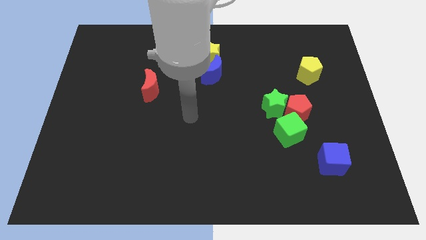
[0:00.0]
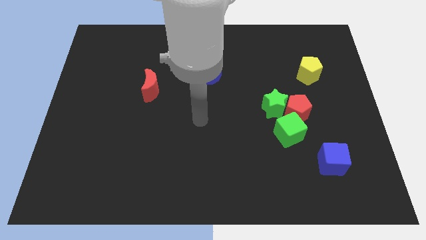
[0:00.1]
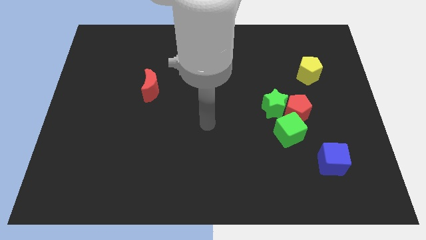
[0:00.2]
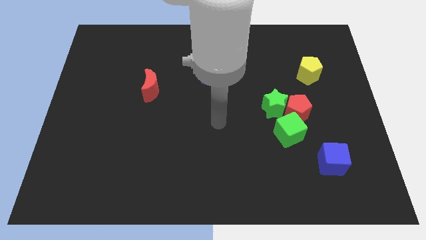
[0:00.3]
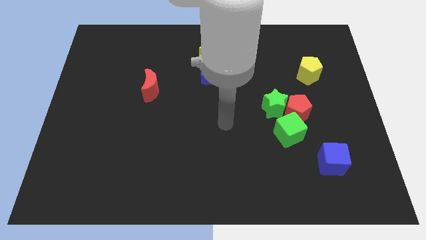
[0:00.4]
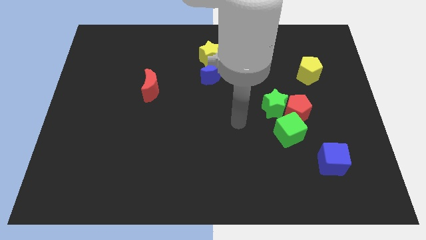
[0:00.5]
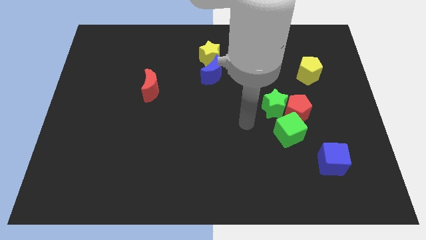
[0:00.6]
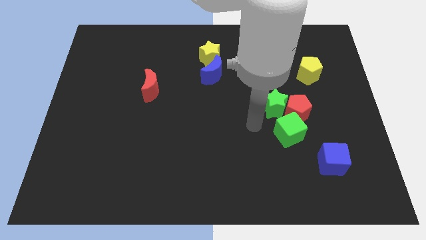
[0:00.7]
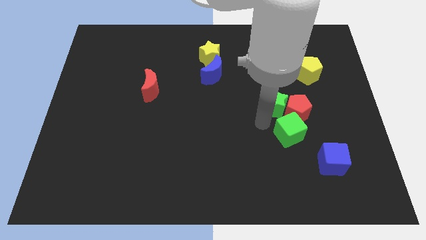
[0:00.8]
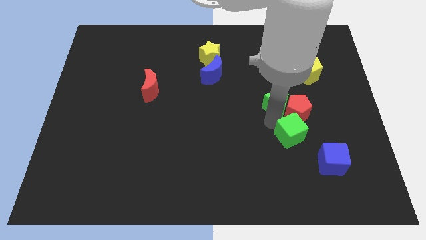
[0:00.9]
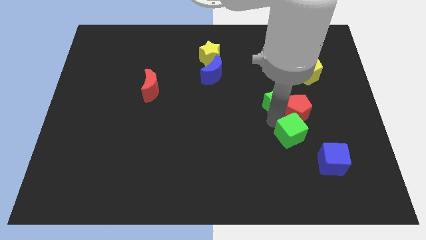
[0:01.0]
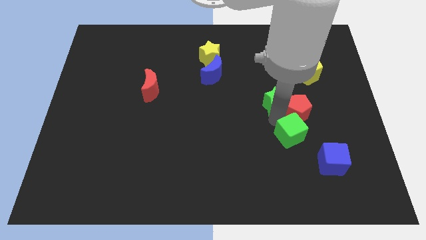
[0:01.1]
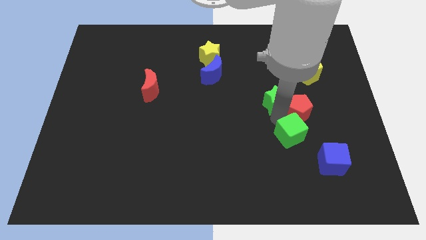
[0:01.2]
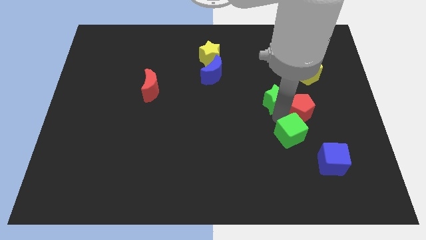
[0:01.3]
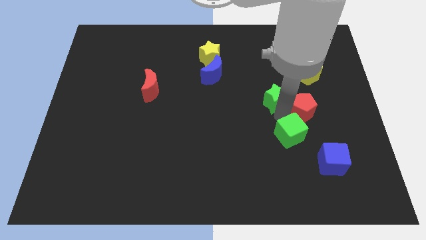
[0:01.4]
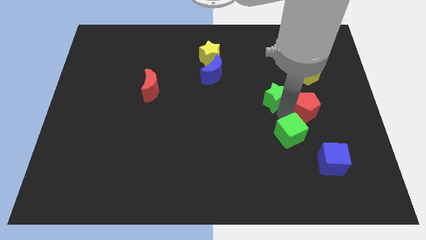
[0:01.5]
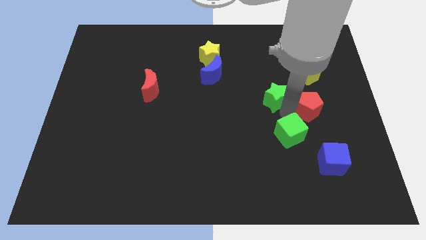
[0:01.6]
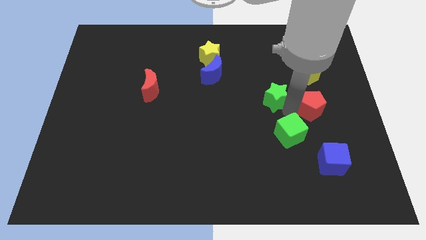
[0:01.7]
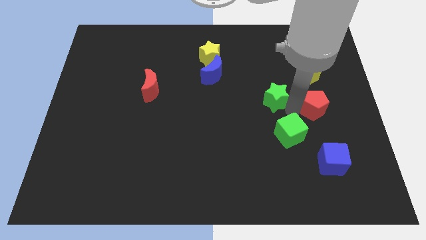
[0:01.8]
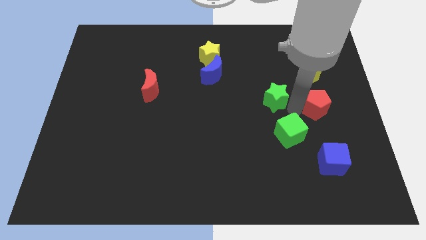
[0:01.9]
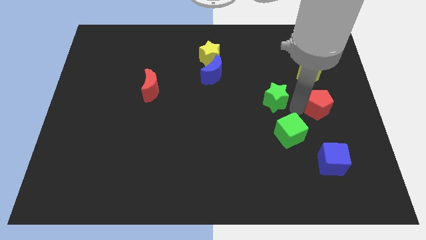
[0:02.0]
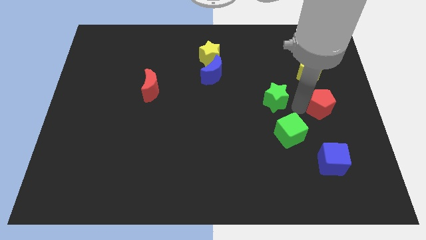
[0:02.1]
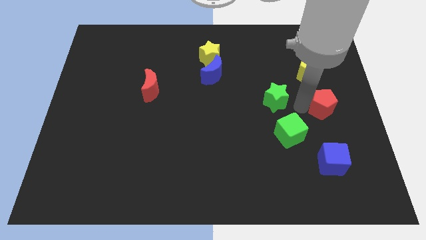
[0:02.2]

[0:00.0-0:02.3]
separate the red pentagon from the green star and green cube

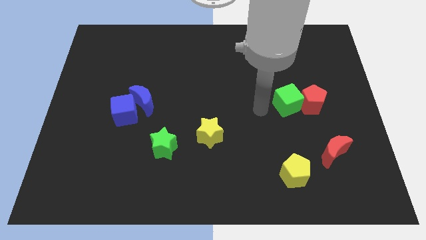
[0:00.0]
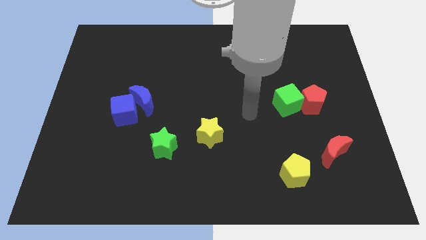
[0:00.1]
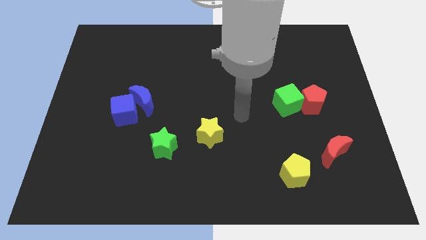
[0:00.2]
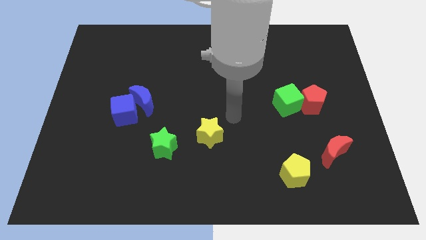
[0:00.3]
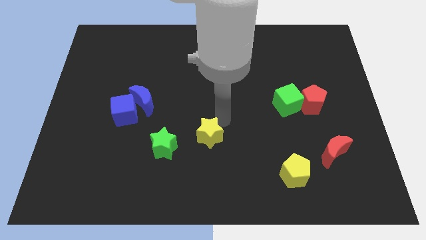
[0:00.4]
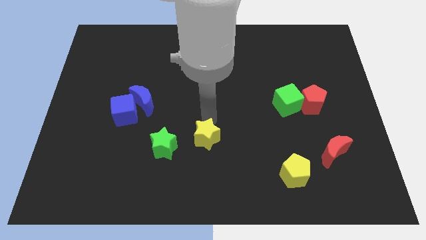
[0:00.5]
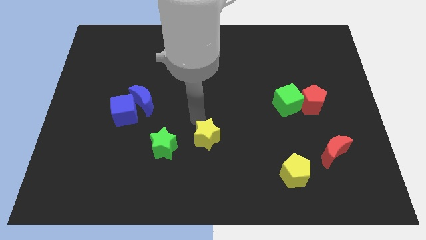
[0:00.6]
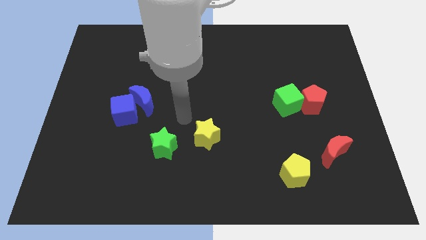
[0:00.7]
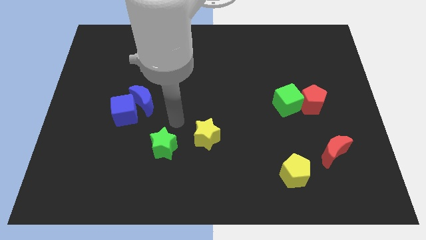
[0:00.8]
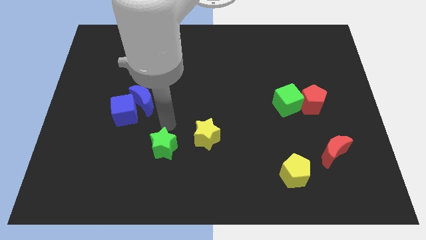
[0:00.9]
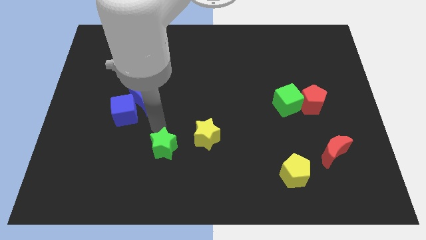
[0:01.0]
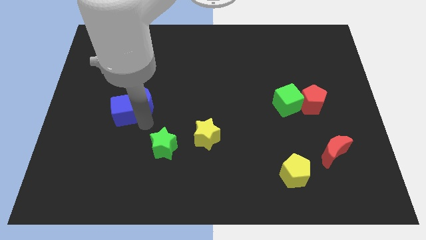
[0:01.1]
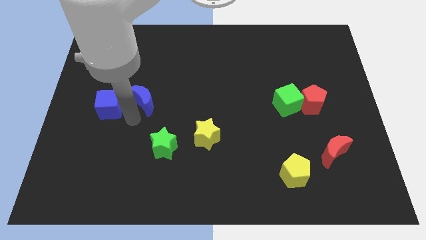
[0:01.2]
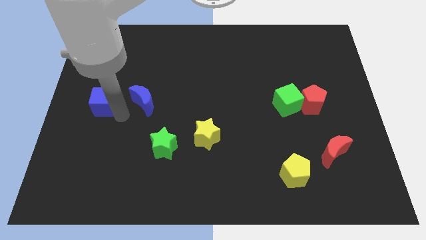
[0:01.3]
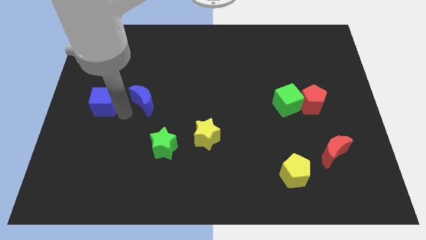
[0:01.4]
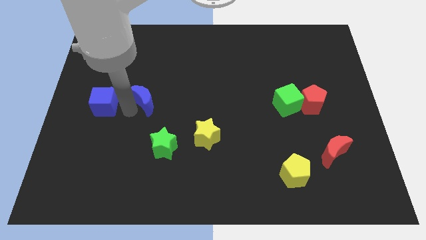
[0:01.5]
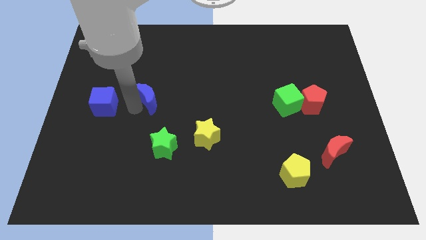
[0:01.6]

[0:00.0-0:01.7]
move the blue moon away from the blue cube

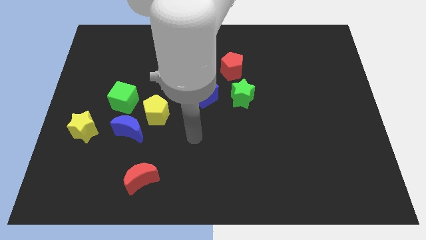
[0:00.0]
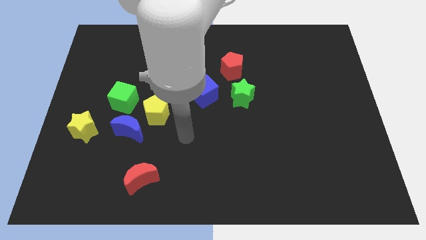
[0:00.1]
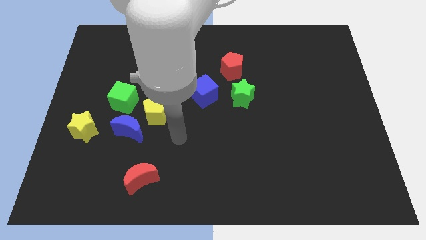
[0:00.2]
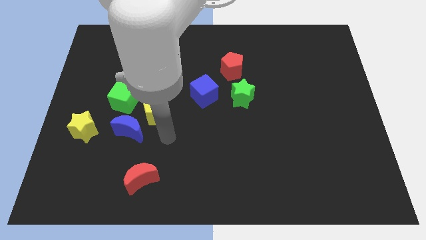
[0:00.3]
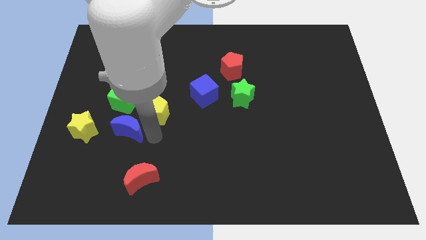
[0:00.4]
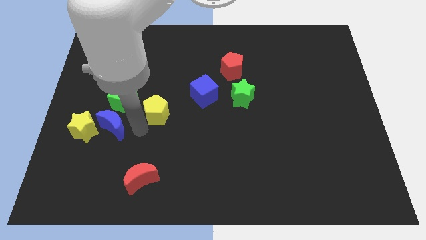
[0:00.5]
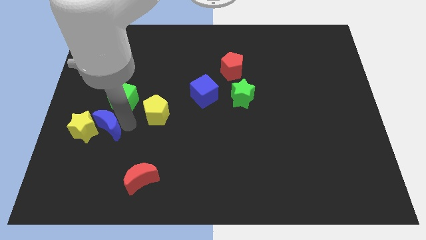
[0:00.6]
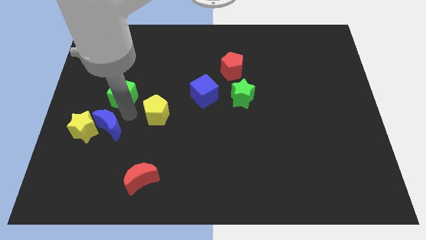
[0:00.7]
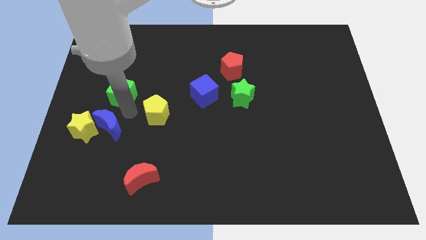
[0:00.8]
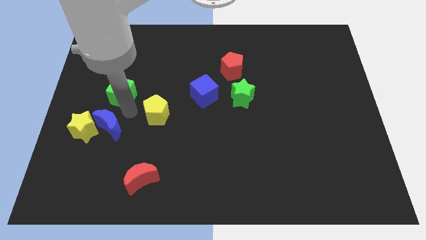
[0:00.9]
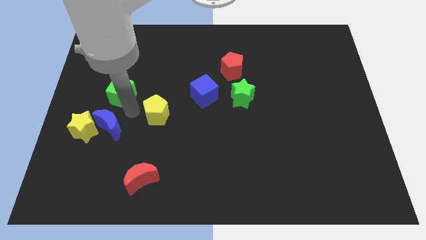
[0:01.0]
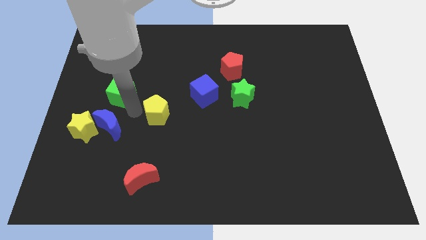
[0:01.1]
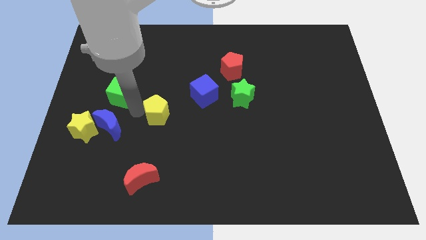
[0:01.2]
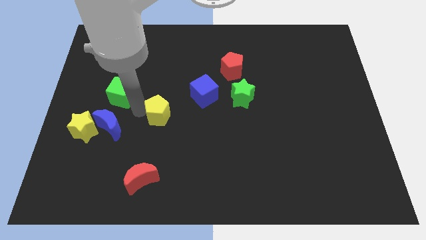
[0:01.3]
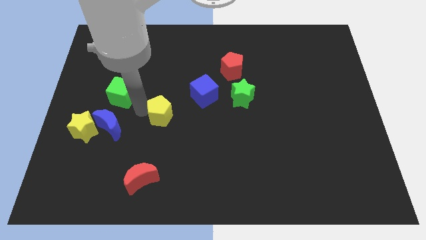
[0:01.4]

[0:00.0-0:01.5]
separate the yellow pentagon from the blue moon and green cube

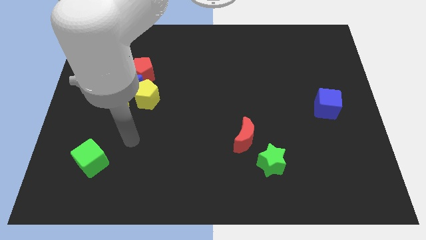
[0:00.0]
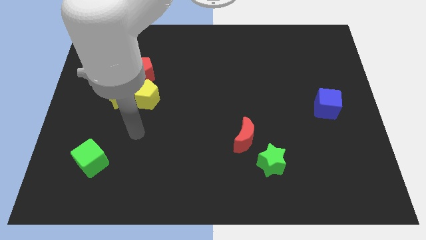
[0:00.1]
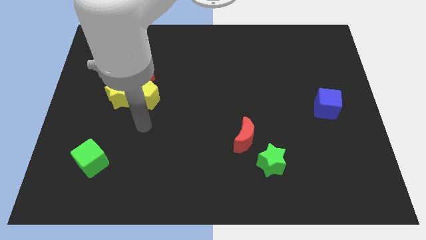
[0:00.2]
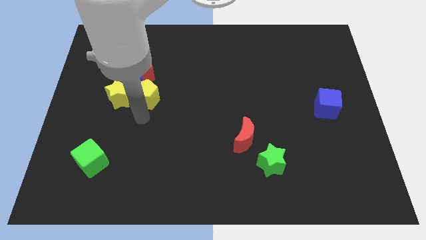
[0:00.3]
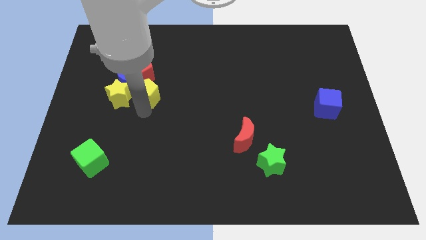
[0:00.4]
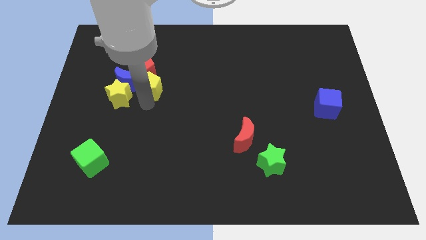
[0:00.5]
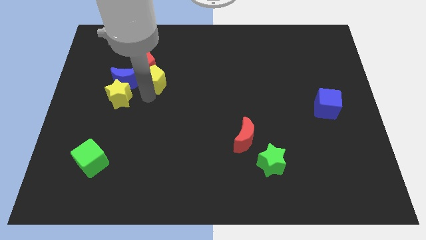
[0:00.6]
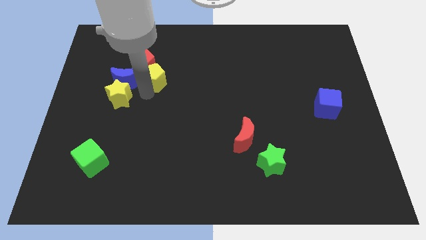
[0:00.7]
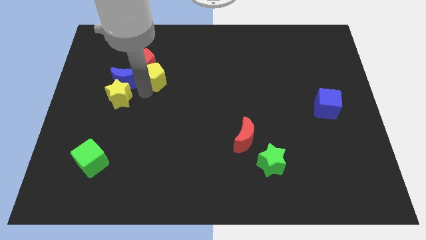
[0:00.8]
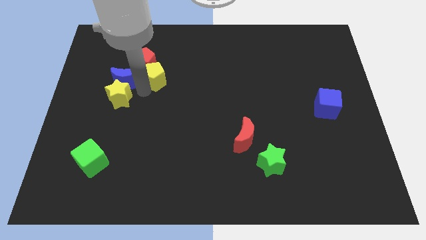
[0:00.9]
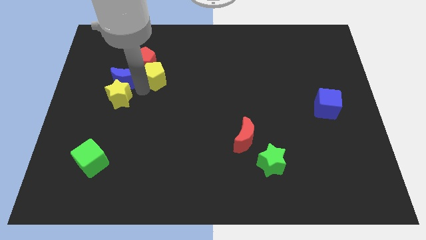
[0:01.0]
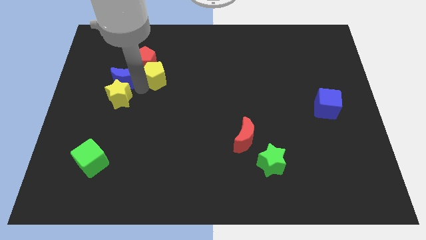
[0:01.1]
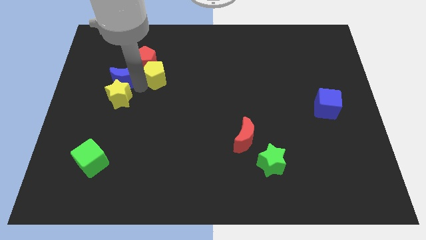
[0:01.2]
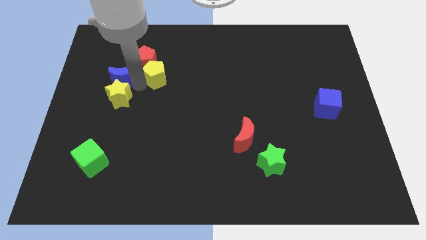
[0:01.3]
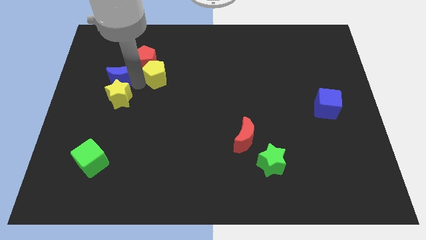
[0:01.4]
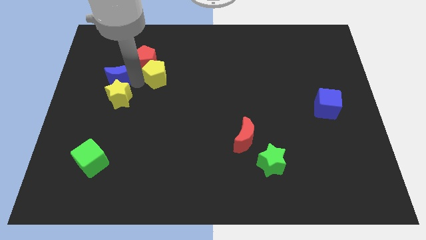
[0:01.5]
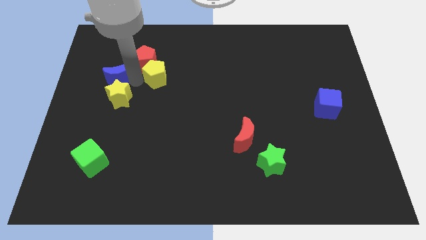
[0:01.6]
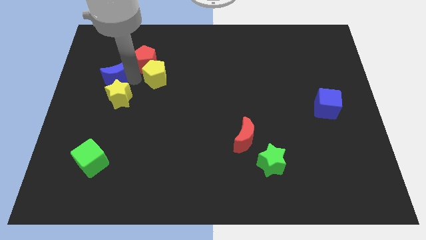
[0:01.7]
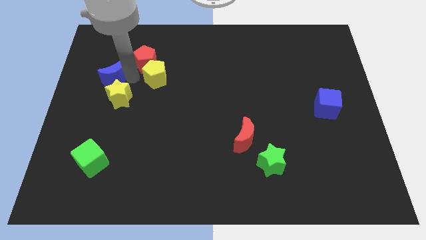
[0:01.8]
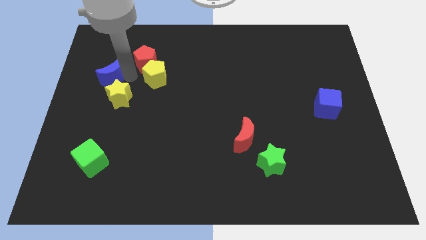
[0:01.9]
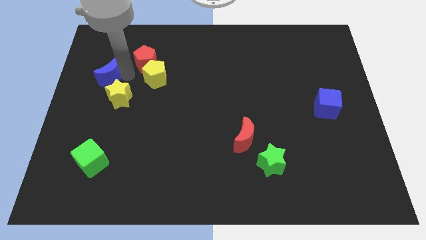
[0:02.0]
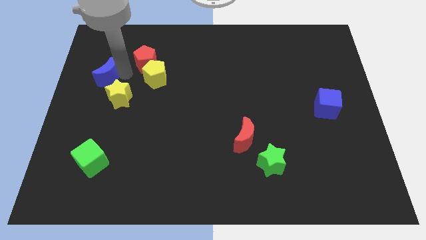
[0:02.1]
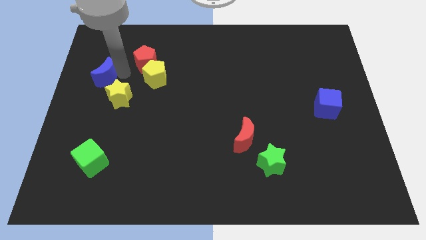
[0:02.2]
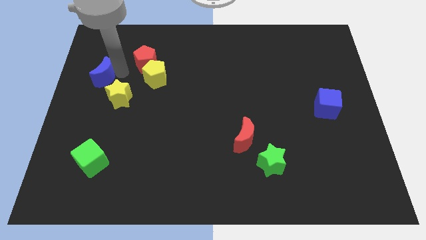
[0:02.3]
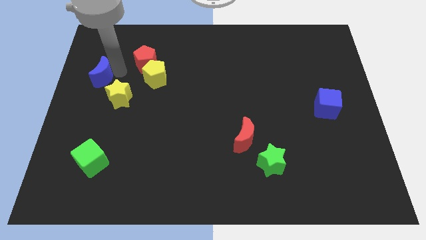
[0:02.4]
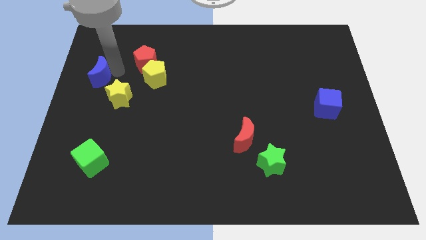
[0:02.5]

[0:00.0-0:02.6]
pull the blue moon apart from the clump

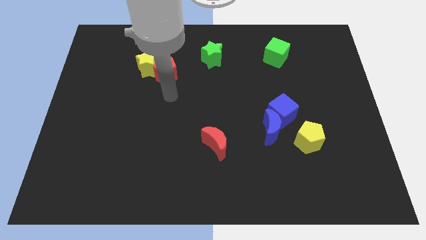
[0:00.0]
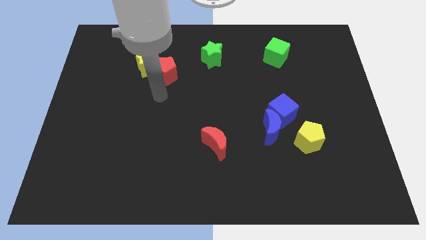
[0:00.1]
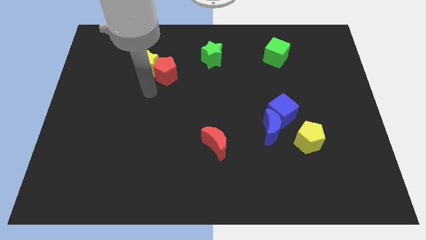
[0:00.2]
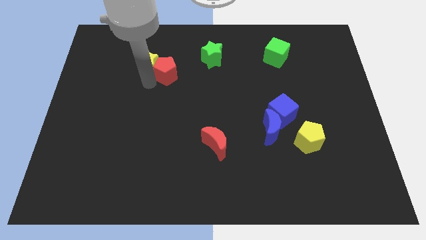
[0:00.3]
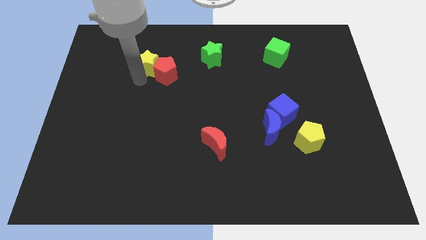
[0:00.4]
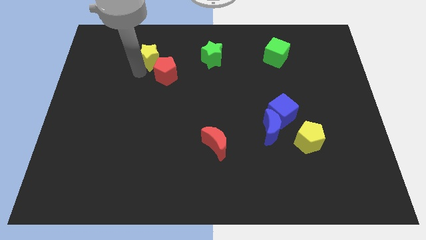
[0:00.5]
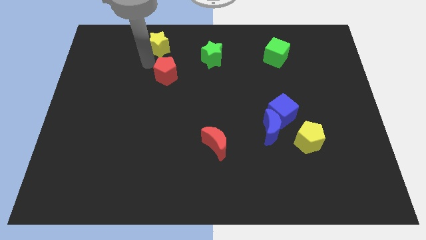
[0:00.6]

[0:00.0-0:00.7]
separate the red pentagon from the yellow star

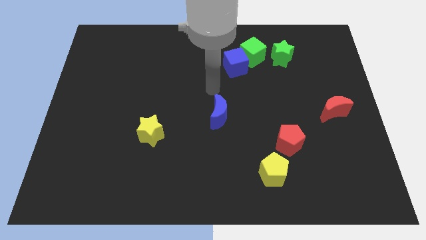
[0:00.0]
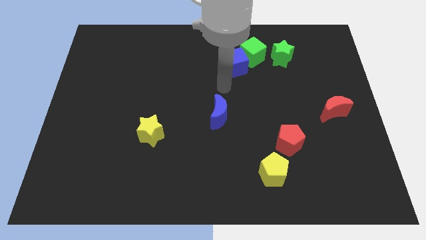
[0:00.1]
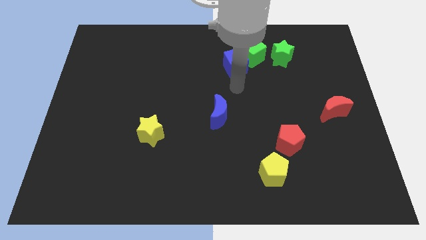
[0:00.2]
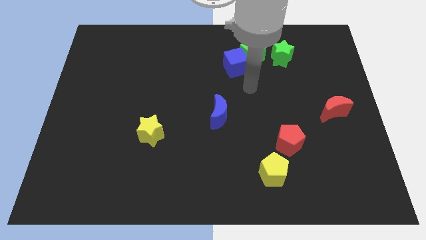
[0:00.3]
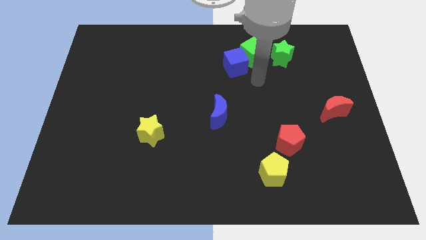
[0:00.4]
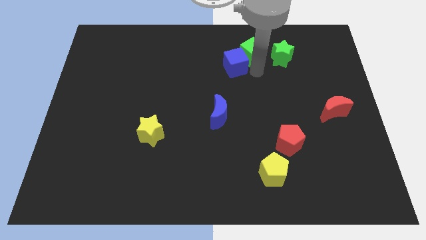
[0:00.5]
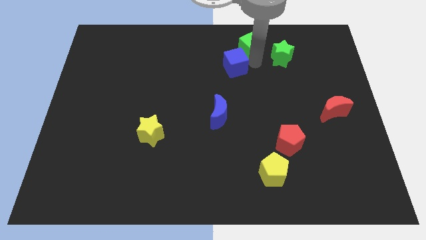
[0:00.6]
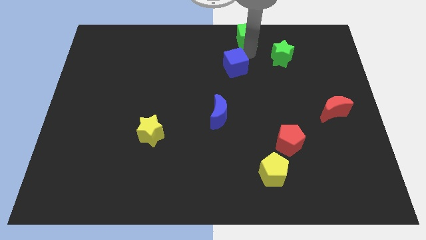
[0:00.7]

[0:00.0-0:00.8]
separate the blue cube from the green cube
